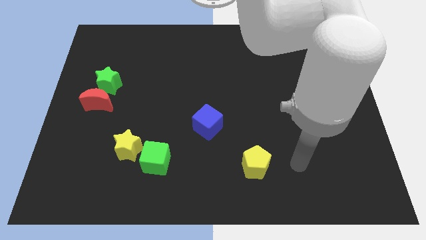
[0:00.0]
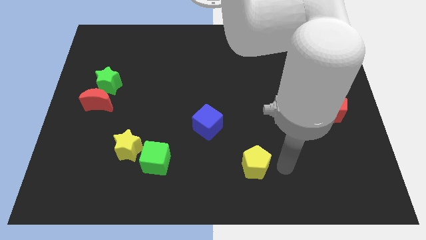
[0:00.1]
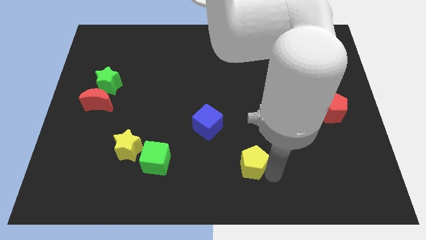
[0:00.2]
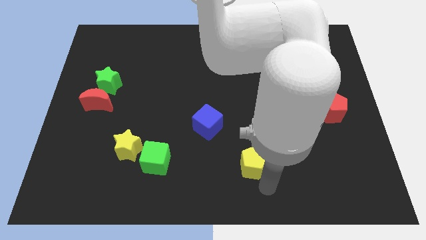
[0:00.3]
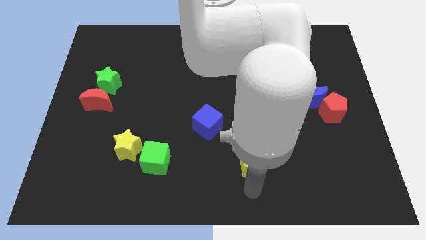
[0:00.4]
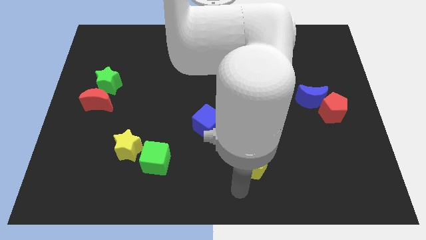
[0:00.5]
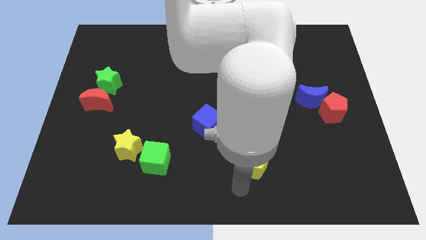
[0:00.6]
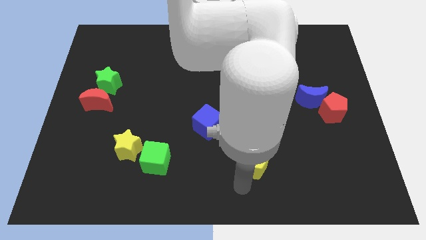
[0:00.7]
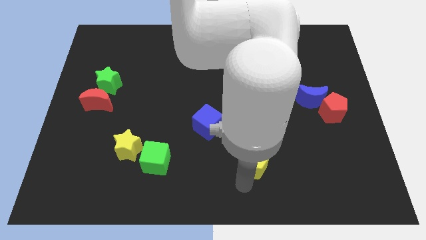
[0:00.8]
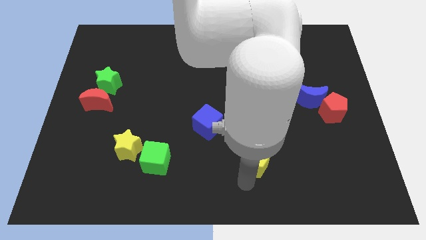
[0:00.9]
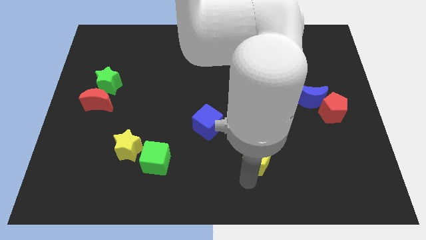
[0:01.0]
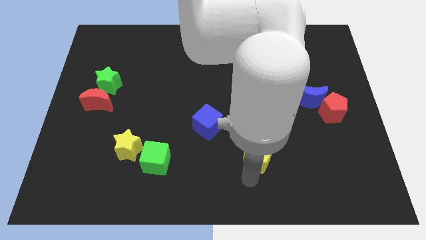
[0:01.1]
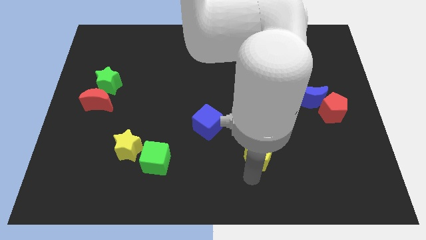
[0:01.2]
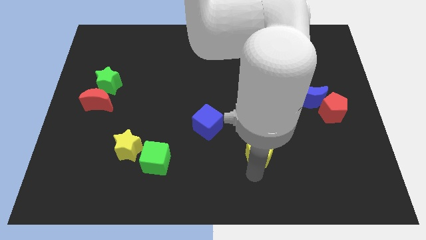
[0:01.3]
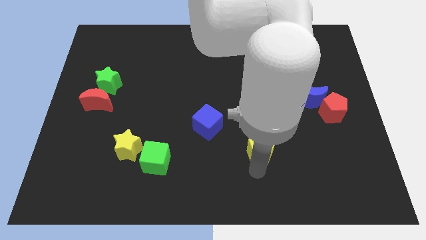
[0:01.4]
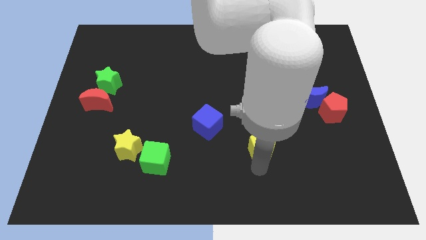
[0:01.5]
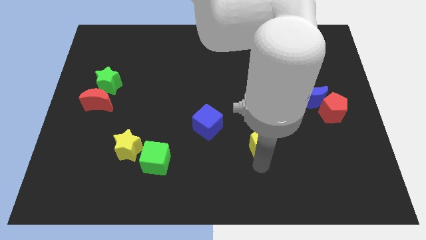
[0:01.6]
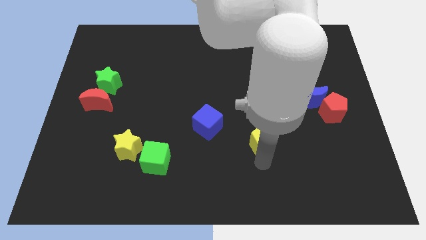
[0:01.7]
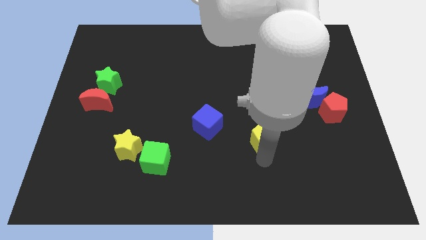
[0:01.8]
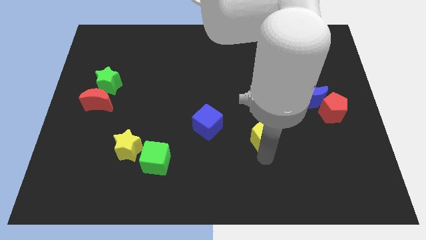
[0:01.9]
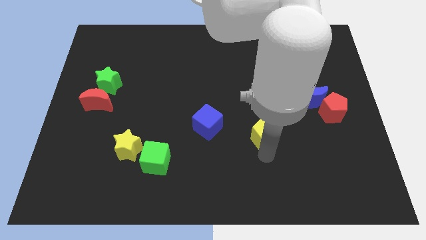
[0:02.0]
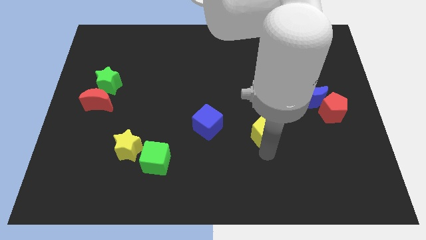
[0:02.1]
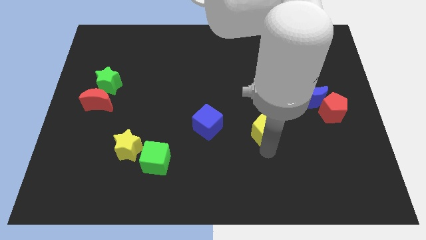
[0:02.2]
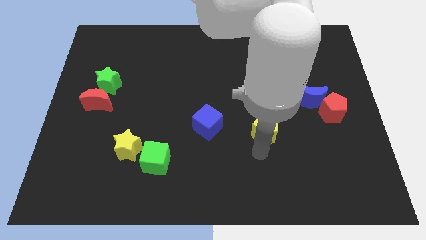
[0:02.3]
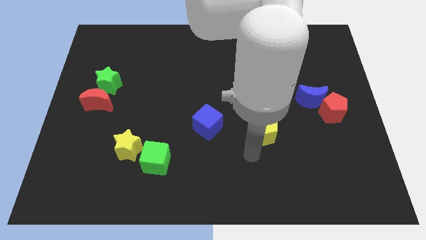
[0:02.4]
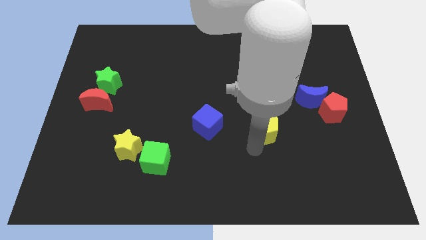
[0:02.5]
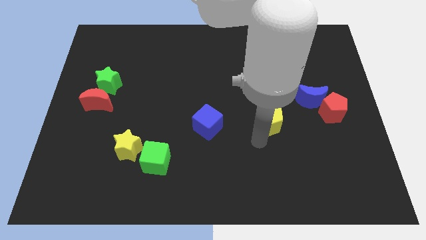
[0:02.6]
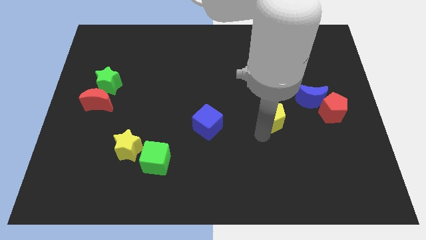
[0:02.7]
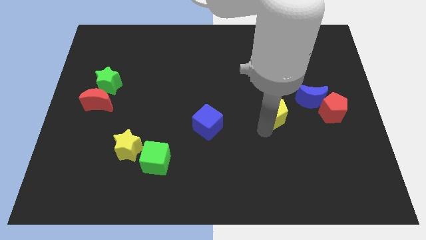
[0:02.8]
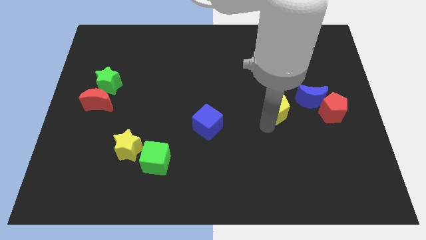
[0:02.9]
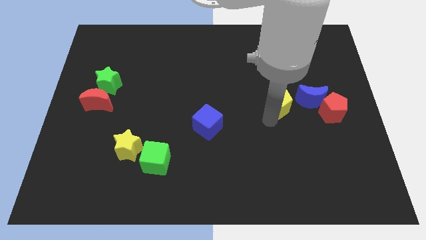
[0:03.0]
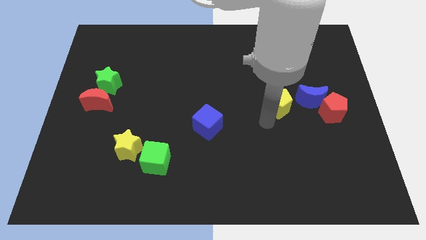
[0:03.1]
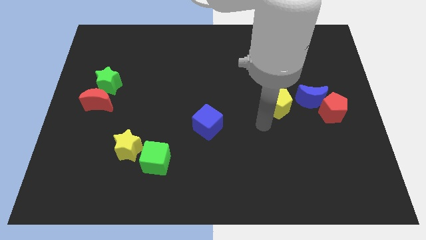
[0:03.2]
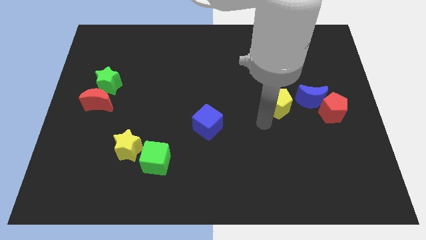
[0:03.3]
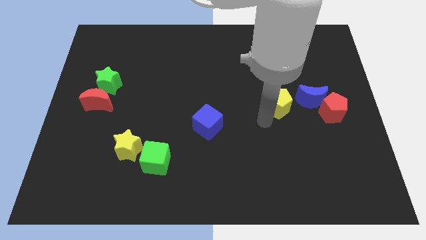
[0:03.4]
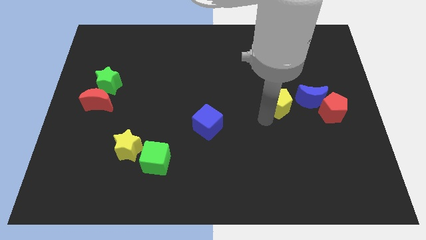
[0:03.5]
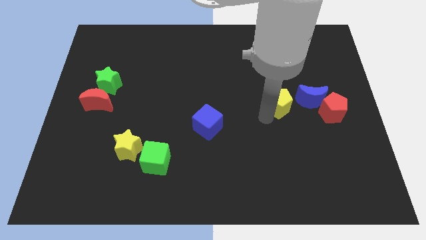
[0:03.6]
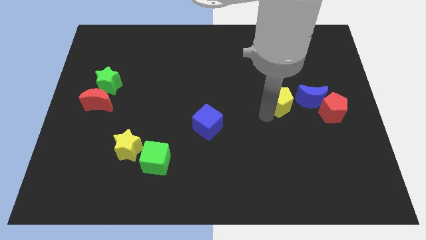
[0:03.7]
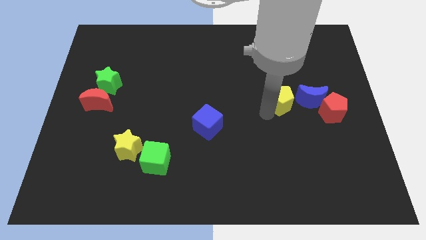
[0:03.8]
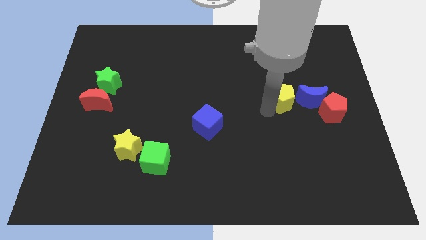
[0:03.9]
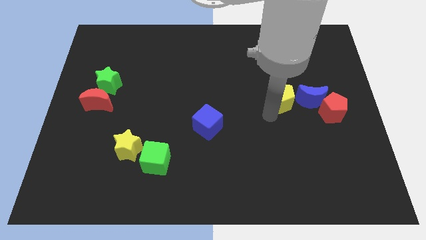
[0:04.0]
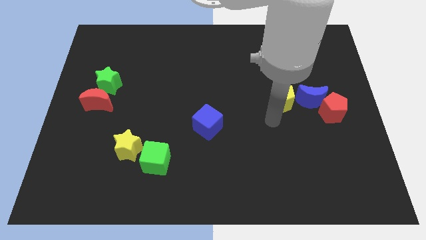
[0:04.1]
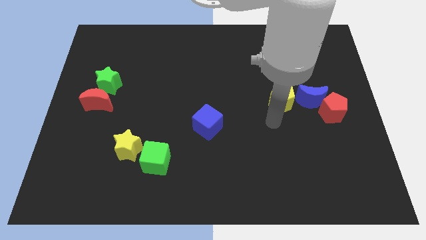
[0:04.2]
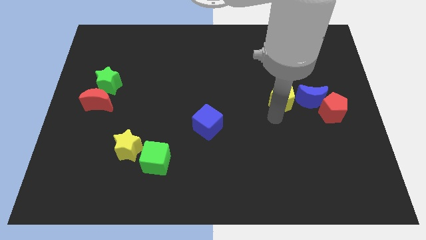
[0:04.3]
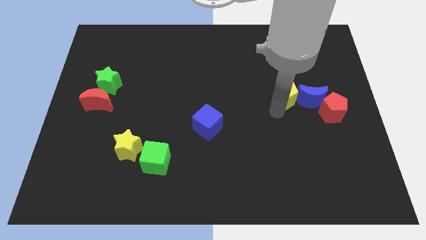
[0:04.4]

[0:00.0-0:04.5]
push the yellow pentagon to the top left of the blue moon

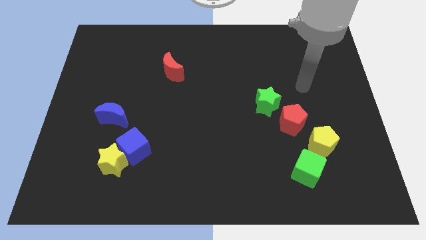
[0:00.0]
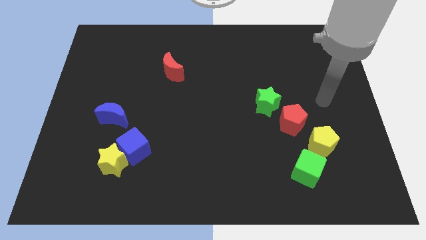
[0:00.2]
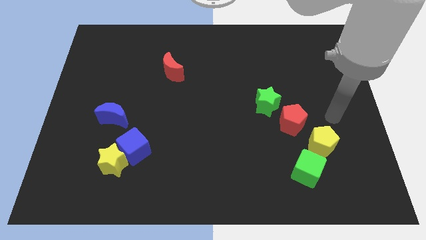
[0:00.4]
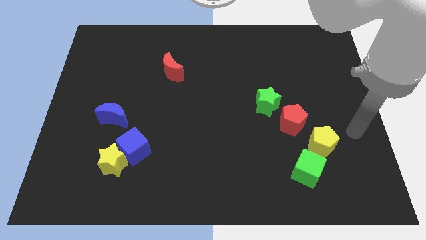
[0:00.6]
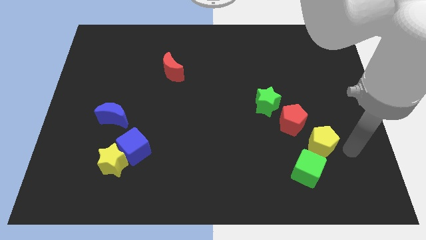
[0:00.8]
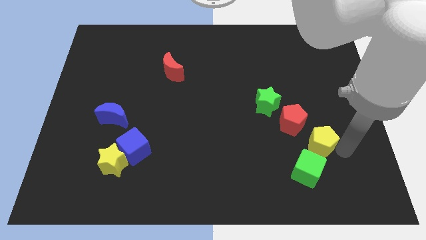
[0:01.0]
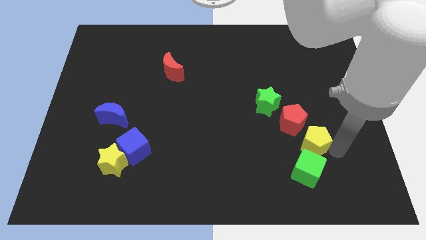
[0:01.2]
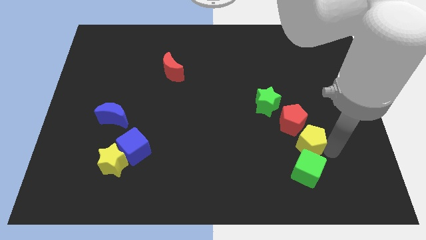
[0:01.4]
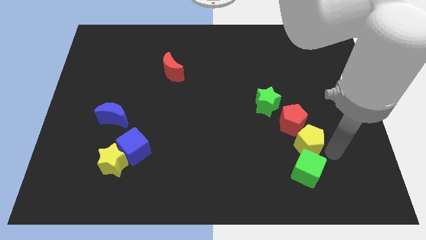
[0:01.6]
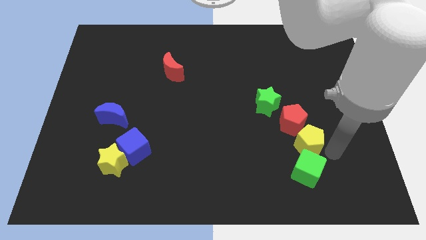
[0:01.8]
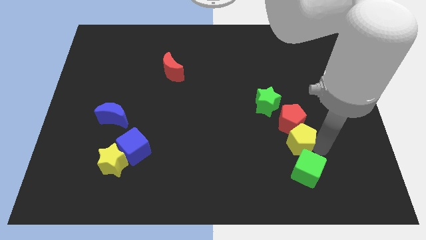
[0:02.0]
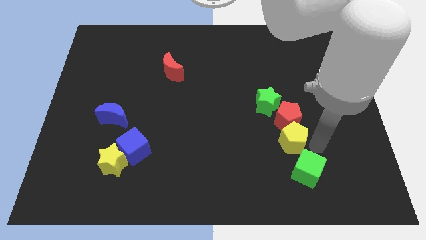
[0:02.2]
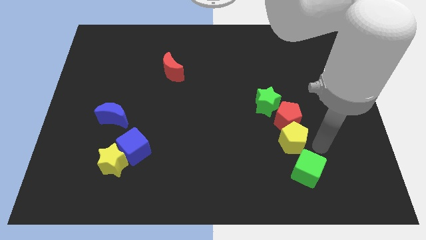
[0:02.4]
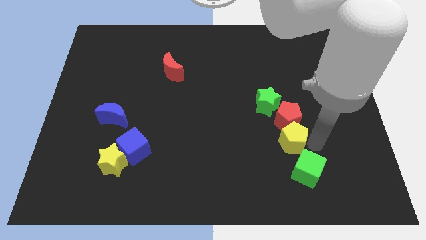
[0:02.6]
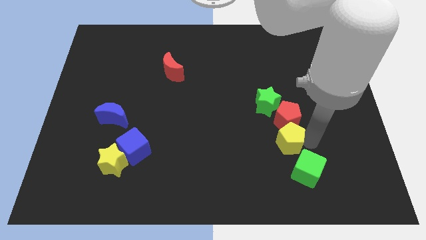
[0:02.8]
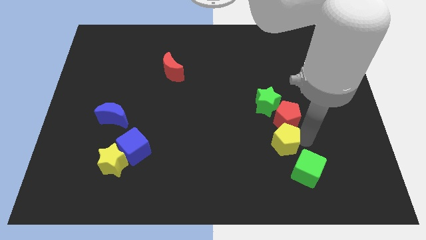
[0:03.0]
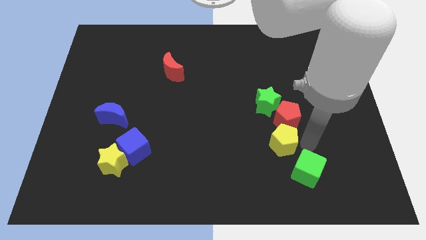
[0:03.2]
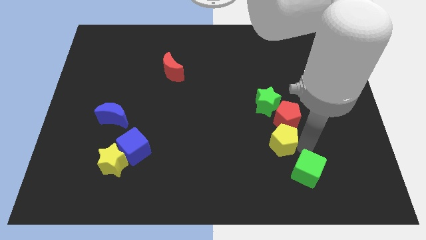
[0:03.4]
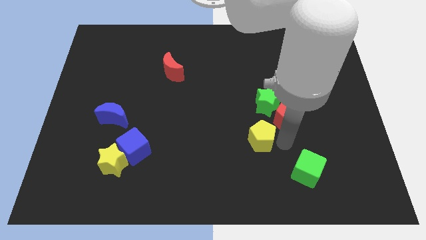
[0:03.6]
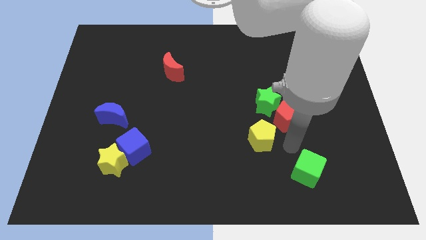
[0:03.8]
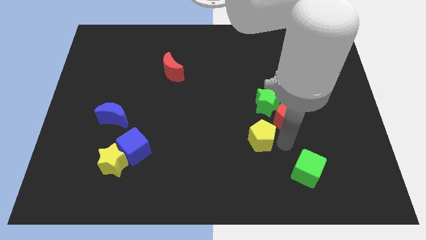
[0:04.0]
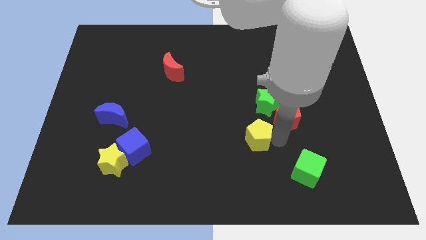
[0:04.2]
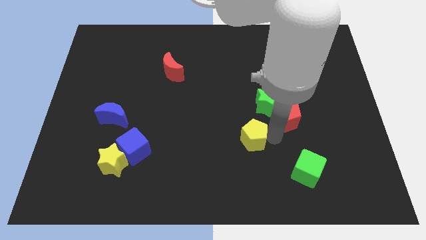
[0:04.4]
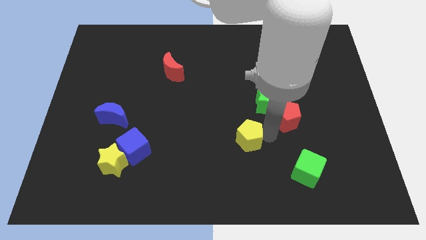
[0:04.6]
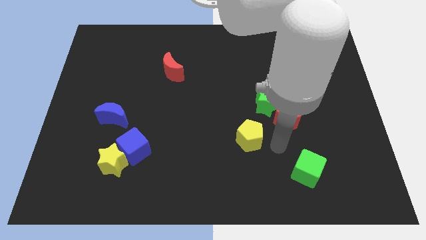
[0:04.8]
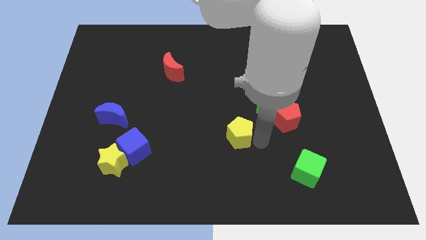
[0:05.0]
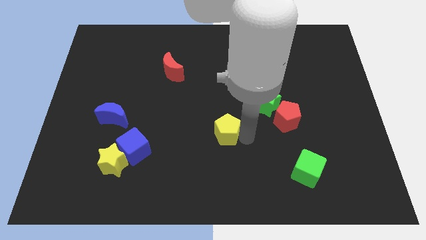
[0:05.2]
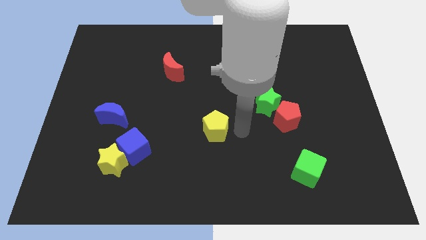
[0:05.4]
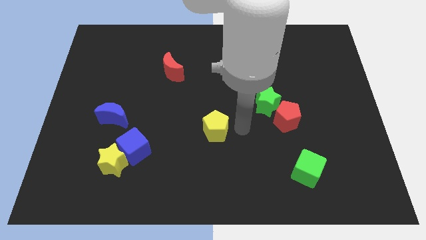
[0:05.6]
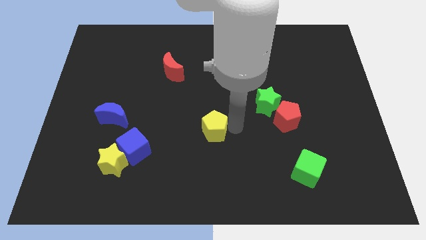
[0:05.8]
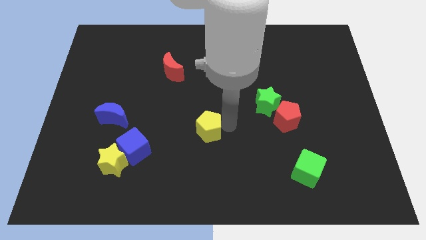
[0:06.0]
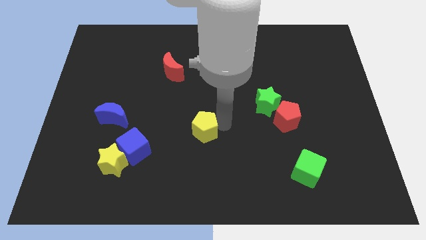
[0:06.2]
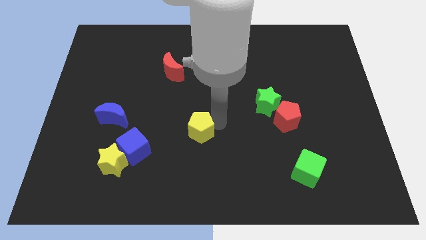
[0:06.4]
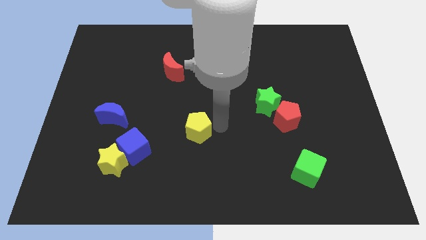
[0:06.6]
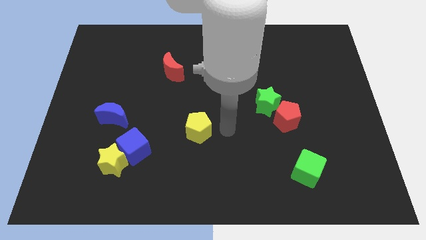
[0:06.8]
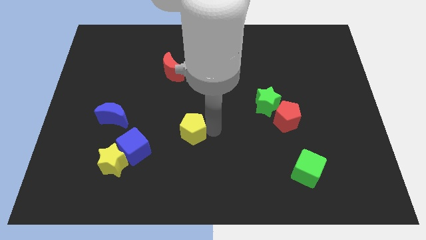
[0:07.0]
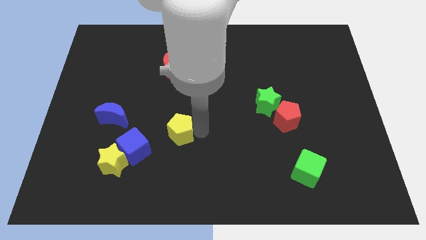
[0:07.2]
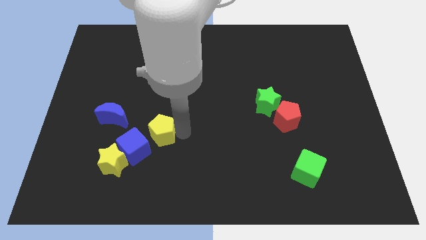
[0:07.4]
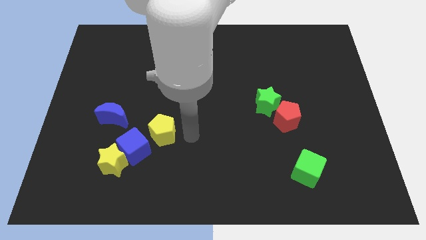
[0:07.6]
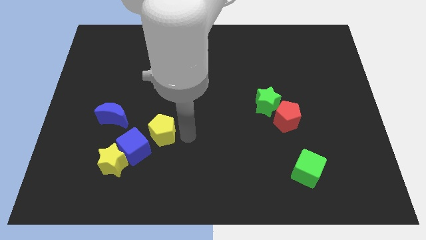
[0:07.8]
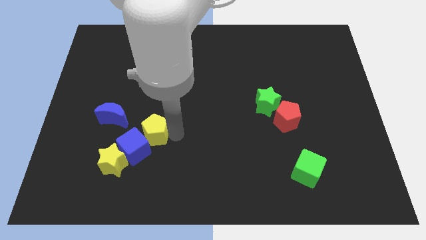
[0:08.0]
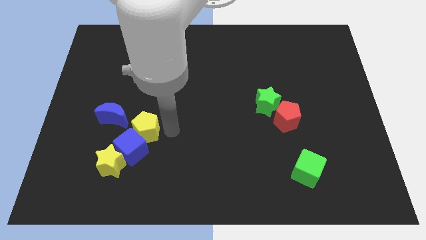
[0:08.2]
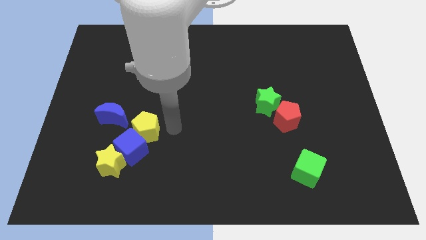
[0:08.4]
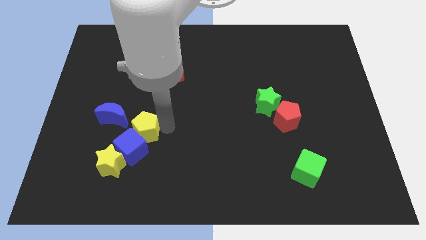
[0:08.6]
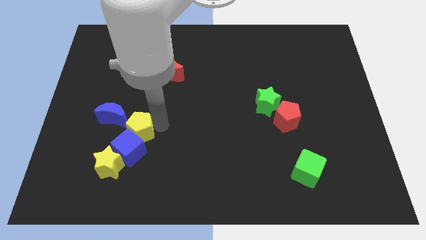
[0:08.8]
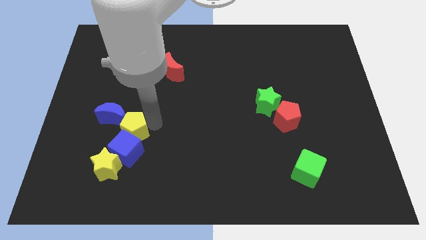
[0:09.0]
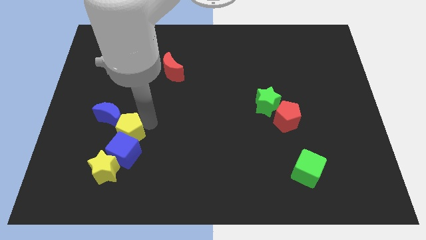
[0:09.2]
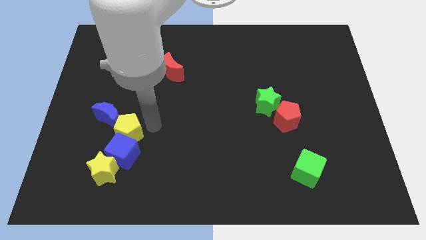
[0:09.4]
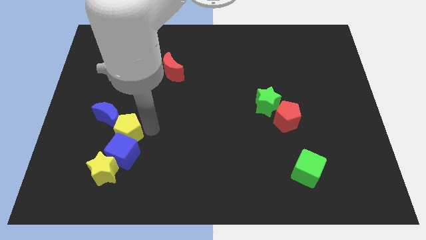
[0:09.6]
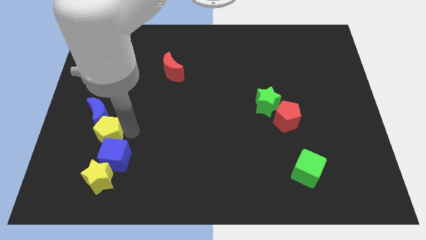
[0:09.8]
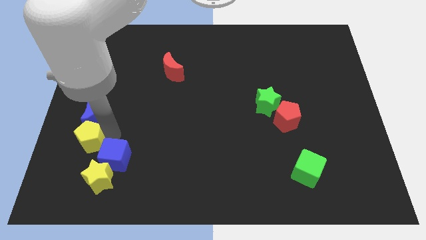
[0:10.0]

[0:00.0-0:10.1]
push the yellow pentagon diagonally down and to the left of the blue moon
